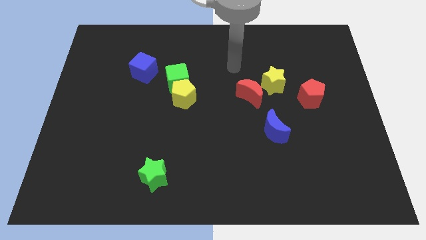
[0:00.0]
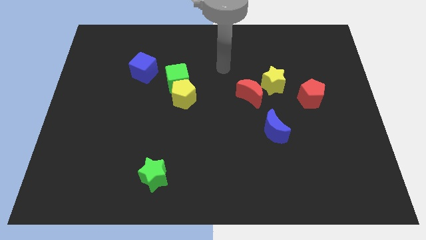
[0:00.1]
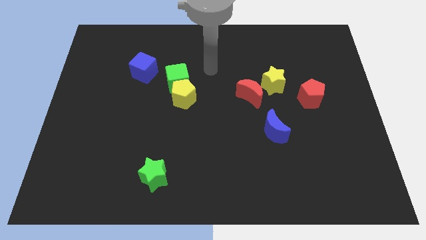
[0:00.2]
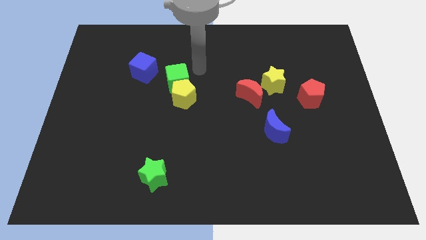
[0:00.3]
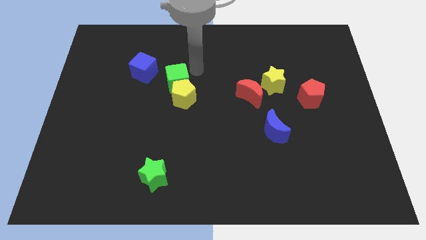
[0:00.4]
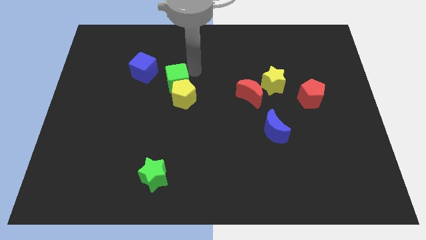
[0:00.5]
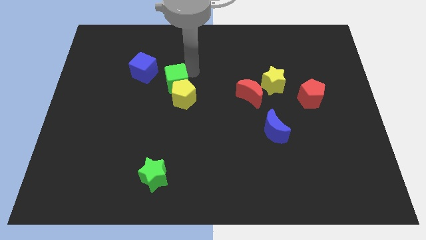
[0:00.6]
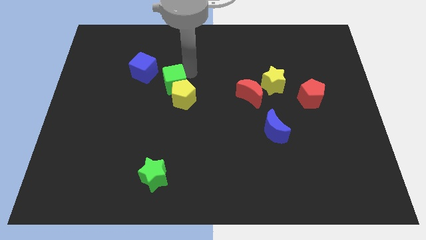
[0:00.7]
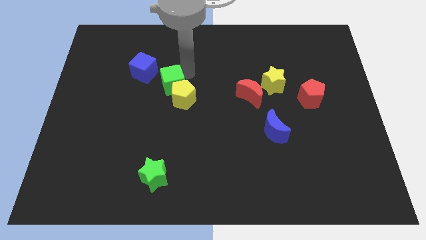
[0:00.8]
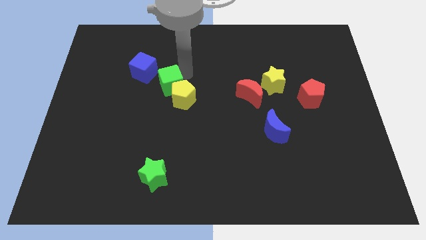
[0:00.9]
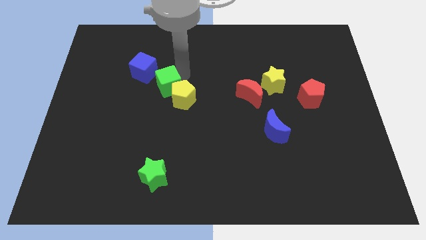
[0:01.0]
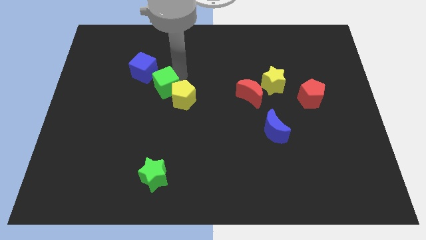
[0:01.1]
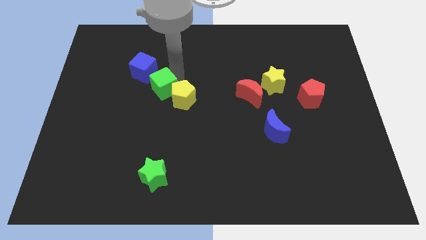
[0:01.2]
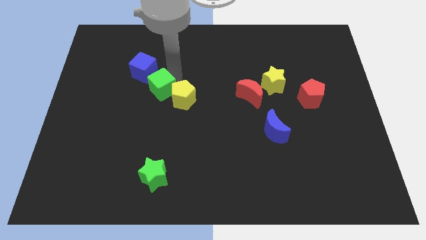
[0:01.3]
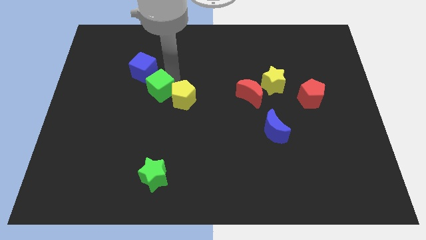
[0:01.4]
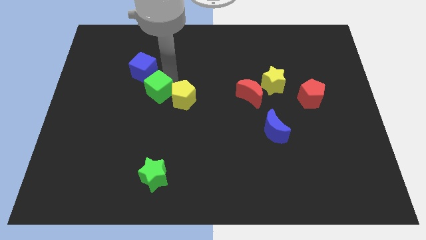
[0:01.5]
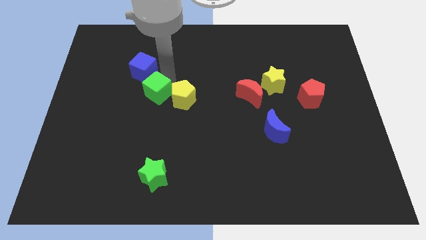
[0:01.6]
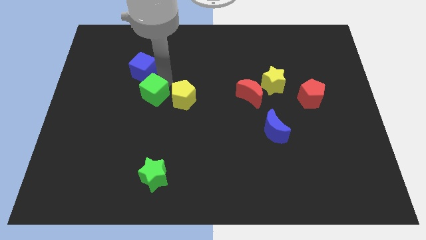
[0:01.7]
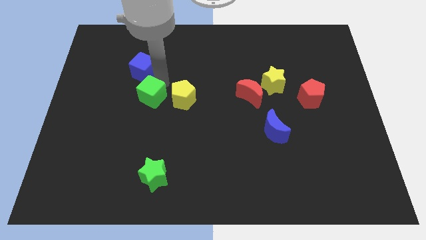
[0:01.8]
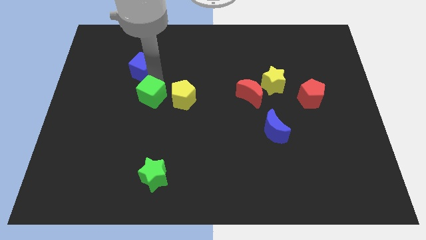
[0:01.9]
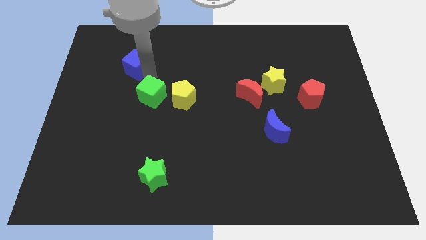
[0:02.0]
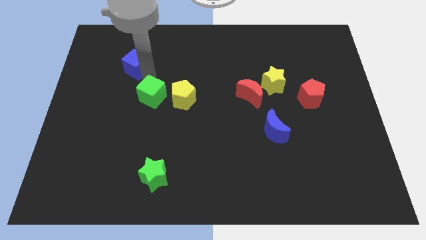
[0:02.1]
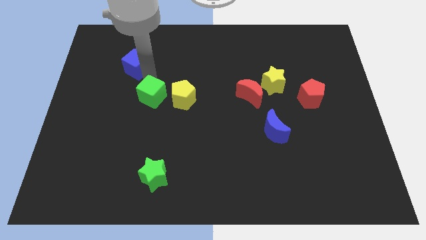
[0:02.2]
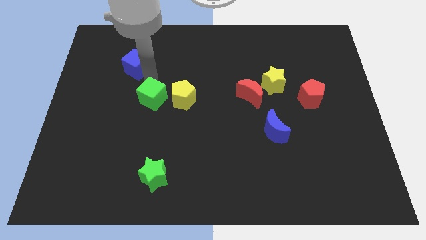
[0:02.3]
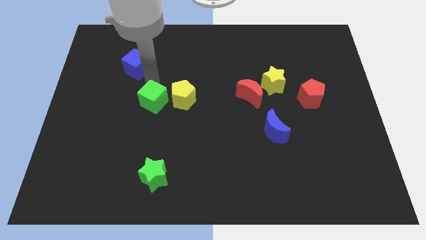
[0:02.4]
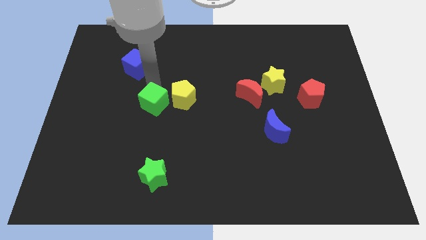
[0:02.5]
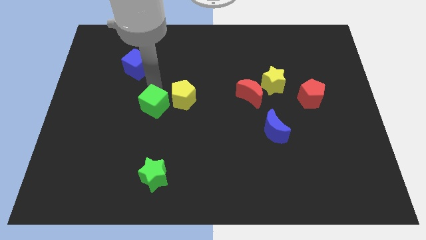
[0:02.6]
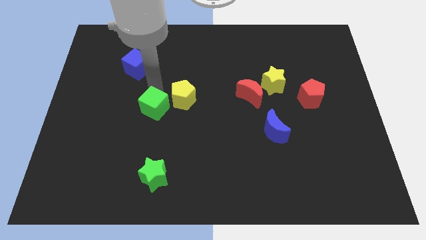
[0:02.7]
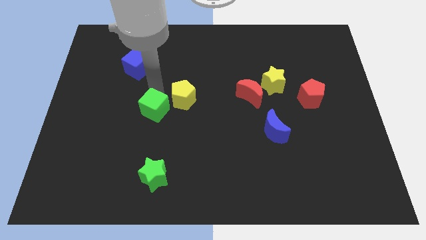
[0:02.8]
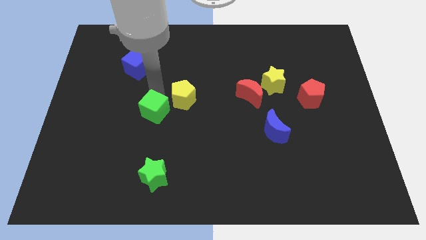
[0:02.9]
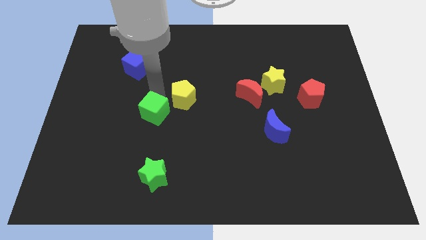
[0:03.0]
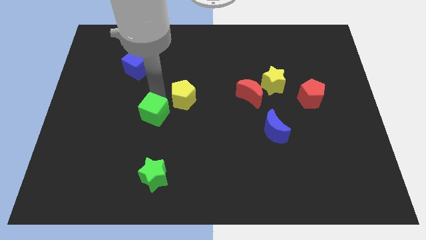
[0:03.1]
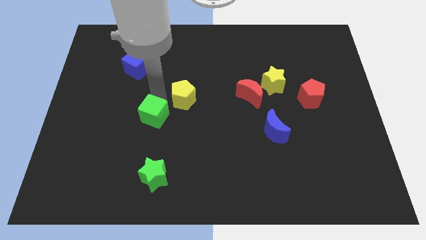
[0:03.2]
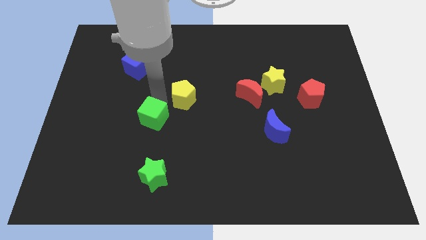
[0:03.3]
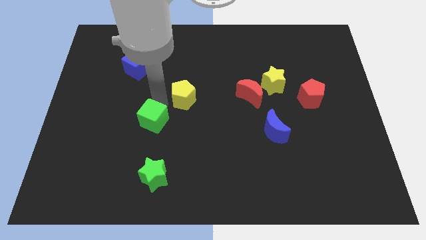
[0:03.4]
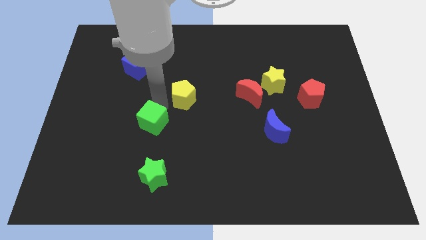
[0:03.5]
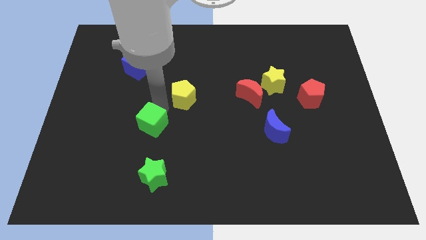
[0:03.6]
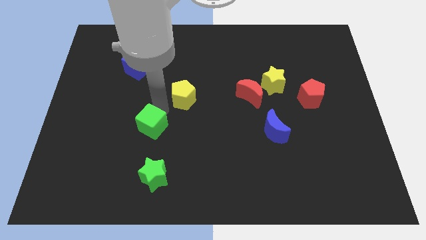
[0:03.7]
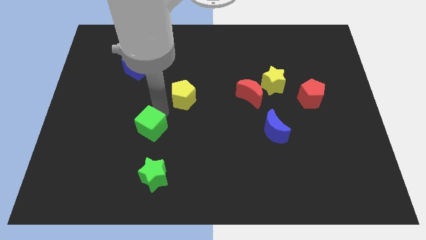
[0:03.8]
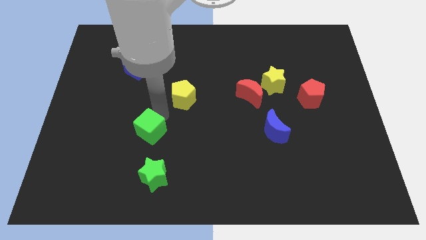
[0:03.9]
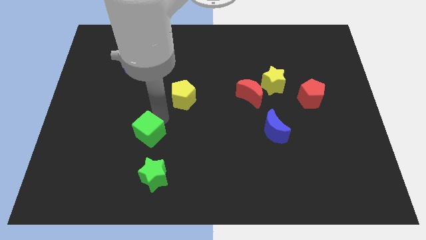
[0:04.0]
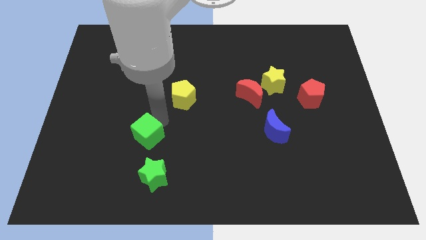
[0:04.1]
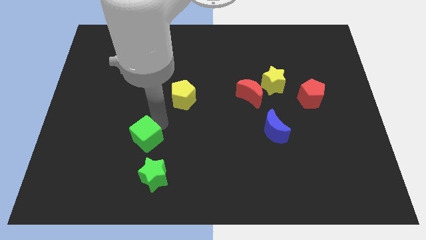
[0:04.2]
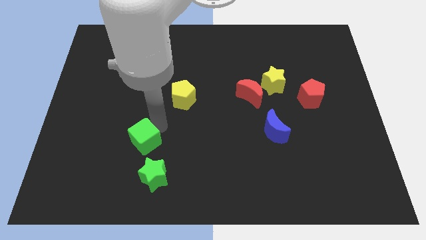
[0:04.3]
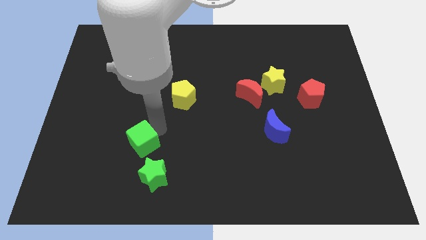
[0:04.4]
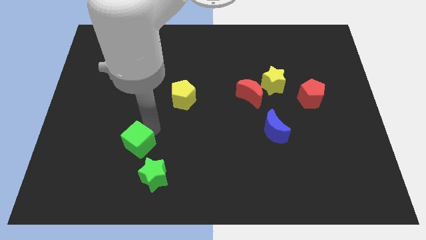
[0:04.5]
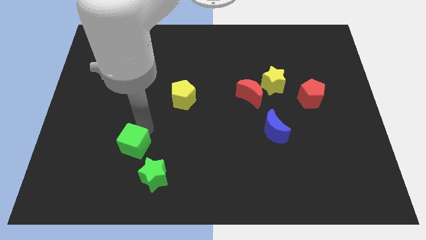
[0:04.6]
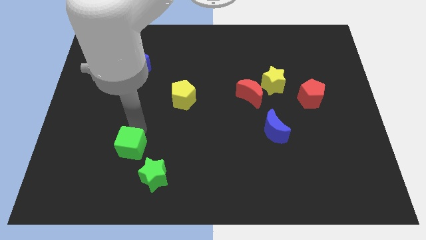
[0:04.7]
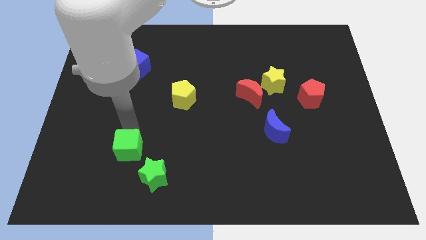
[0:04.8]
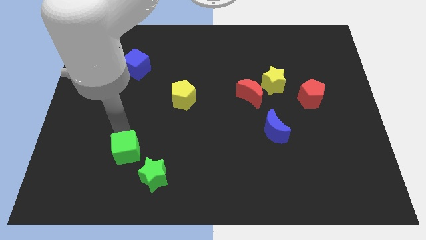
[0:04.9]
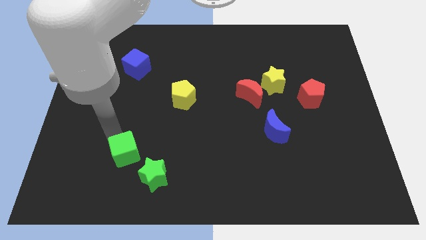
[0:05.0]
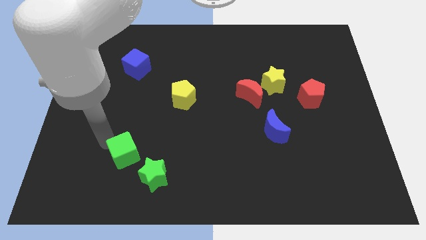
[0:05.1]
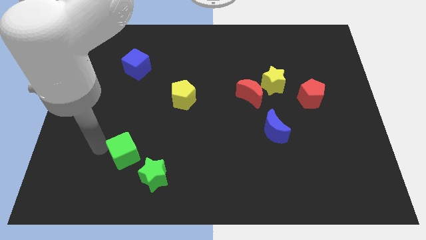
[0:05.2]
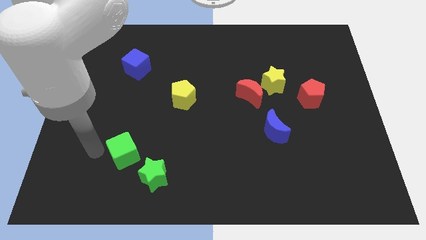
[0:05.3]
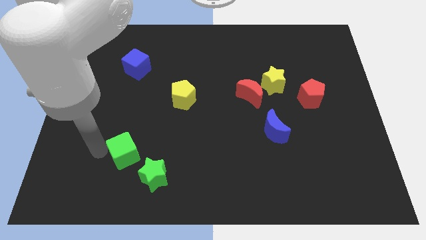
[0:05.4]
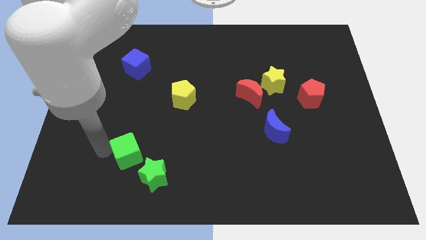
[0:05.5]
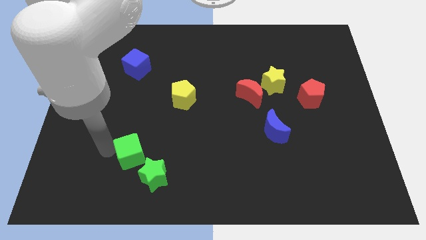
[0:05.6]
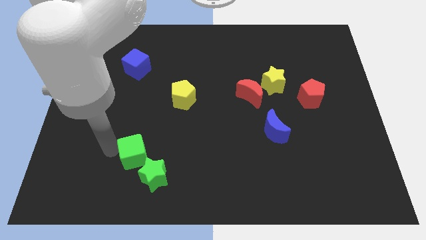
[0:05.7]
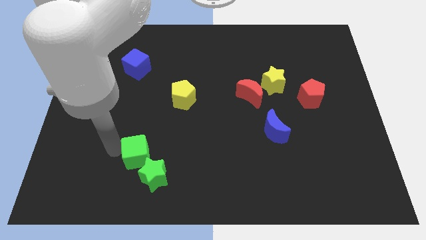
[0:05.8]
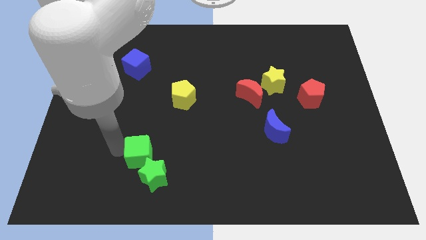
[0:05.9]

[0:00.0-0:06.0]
put the green cube next to the green star

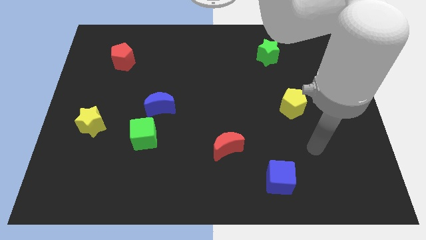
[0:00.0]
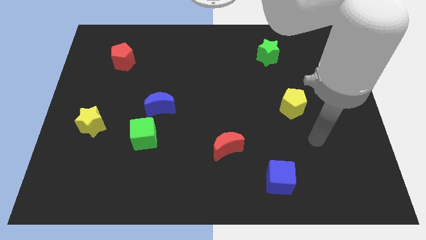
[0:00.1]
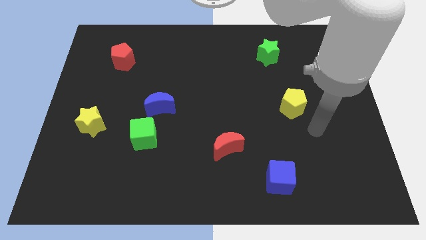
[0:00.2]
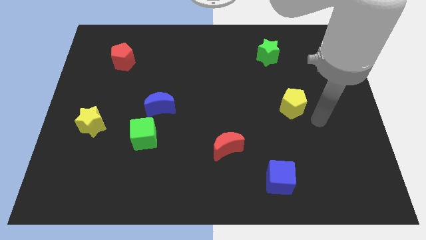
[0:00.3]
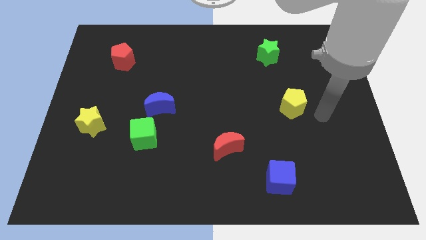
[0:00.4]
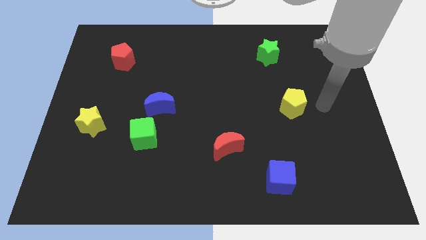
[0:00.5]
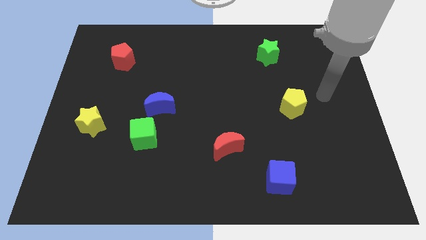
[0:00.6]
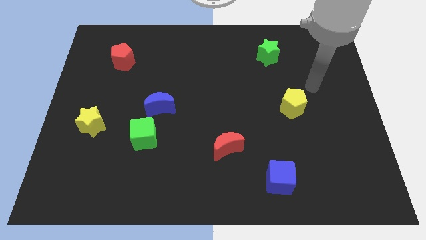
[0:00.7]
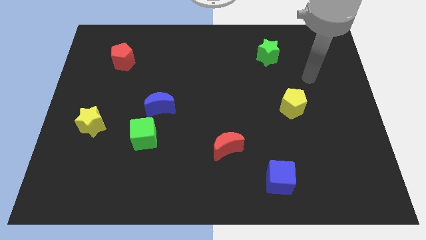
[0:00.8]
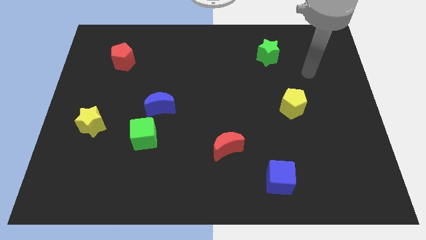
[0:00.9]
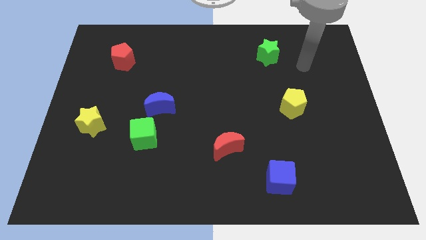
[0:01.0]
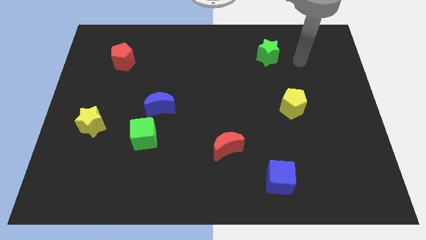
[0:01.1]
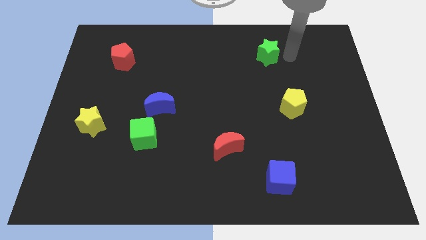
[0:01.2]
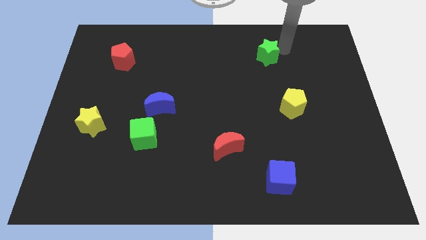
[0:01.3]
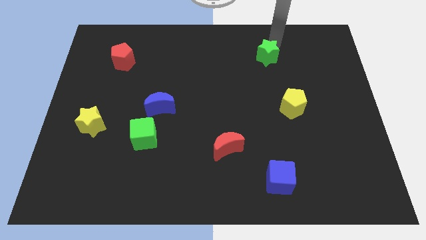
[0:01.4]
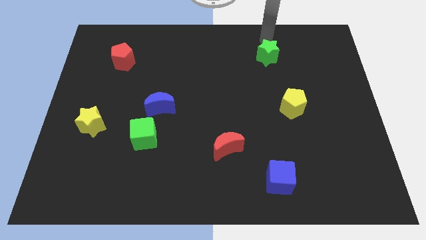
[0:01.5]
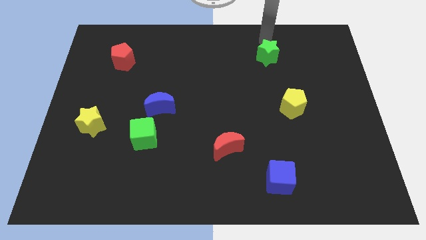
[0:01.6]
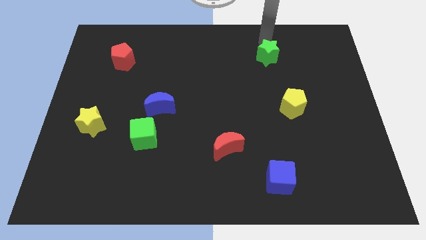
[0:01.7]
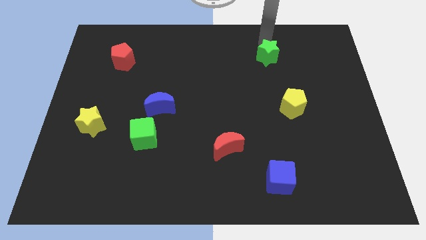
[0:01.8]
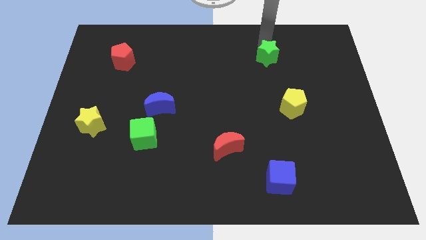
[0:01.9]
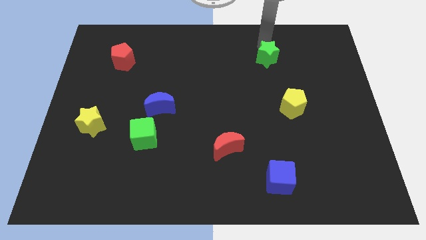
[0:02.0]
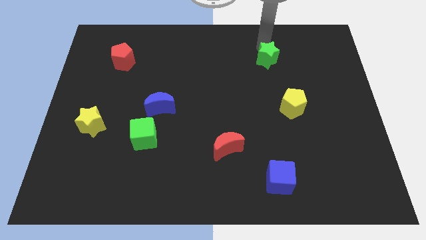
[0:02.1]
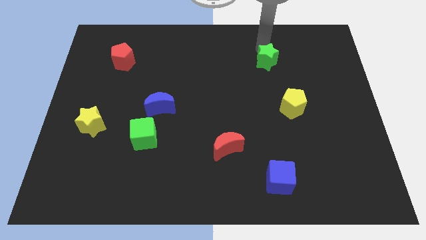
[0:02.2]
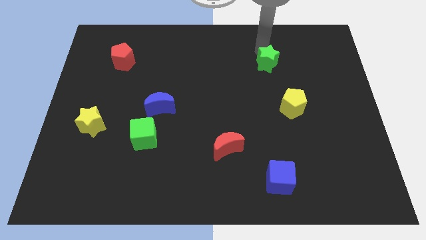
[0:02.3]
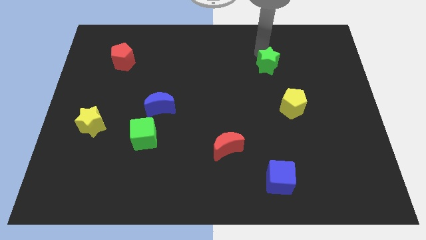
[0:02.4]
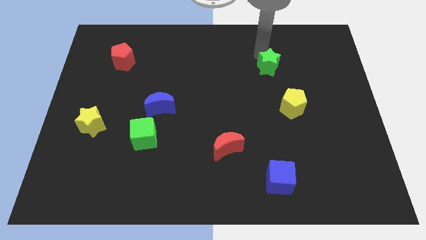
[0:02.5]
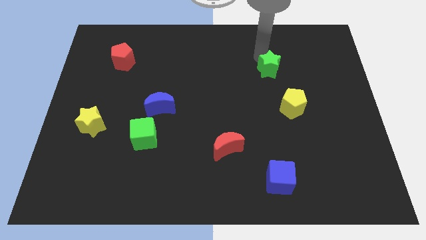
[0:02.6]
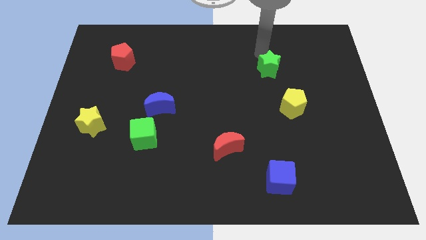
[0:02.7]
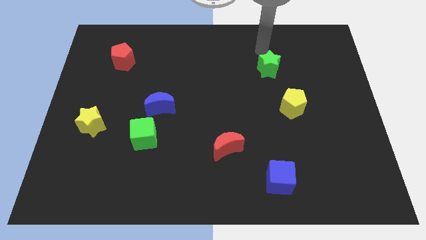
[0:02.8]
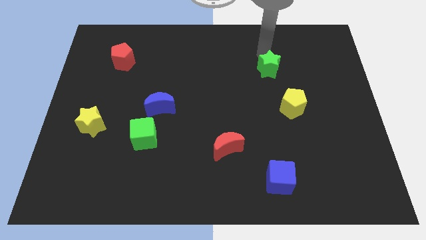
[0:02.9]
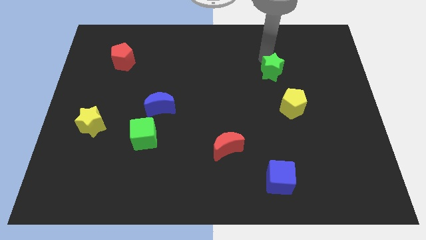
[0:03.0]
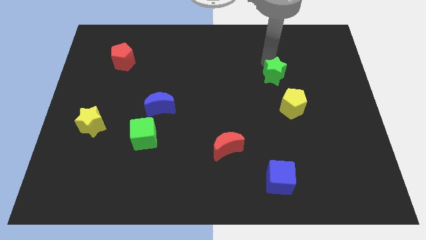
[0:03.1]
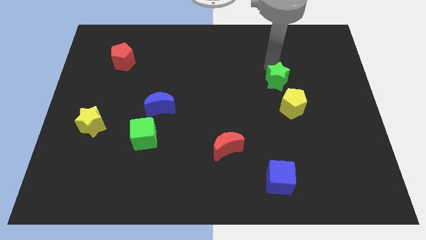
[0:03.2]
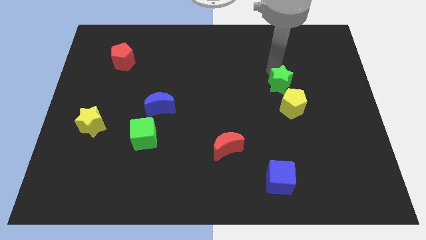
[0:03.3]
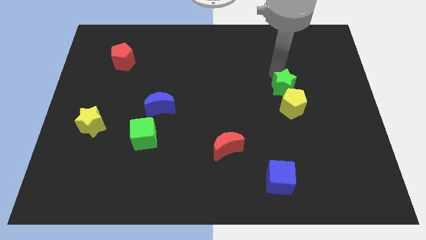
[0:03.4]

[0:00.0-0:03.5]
slide the green star close to the yellow pentagon
